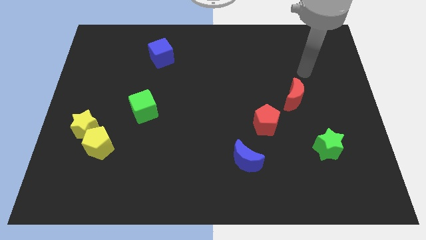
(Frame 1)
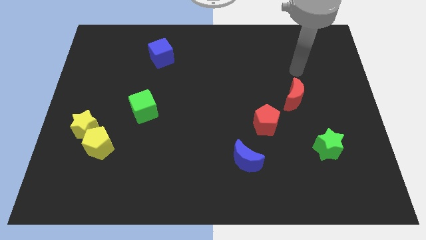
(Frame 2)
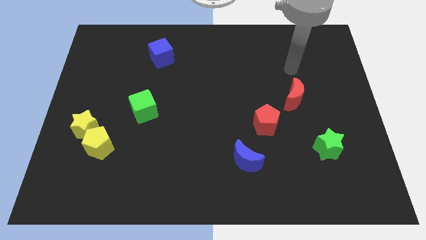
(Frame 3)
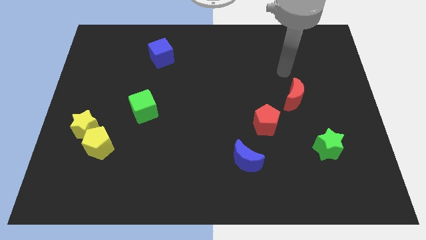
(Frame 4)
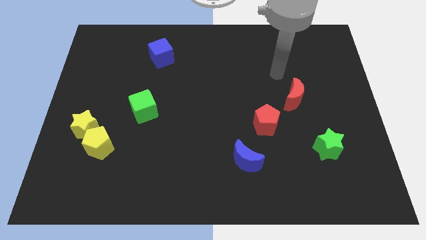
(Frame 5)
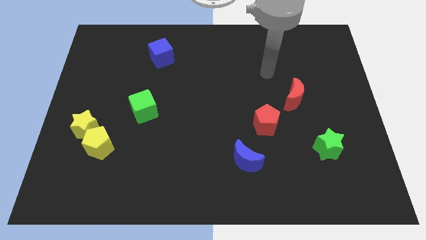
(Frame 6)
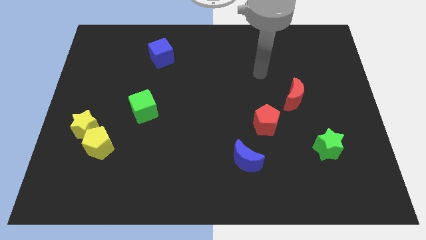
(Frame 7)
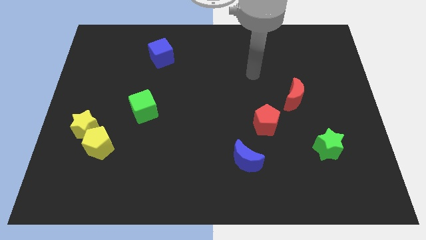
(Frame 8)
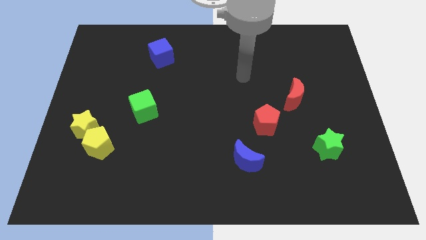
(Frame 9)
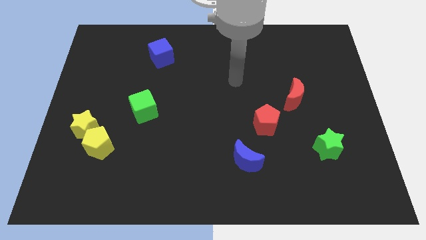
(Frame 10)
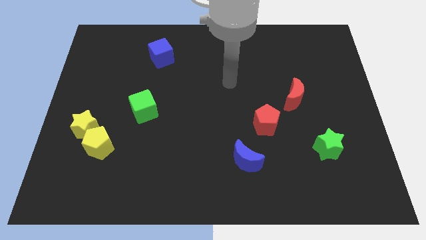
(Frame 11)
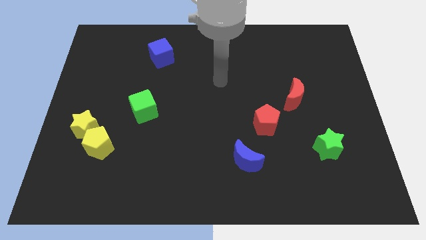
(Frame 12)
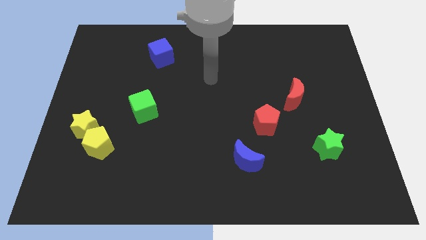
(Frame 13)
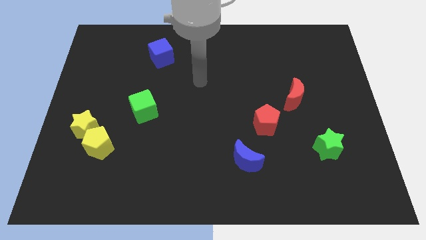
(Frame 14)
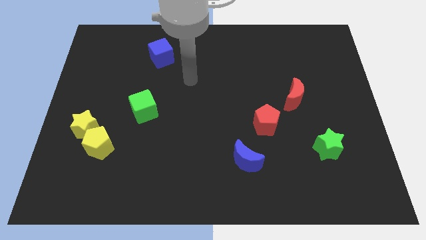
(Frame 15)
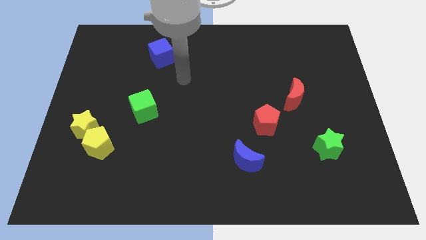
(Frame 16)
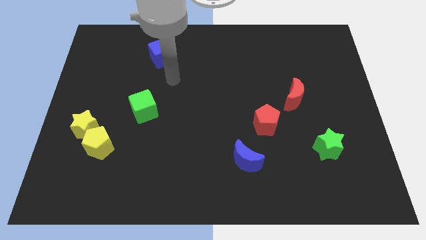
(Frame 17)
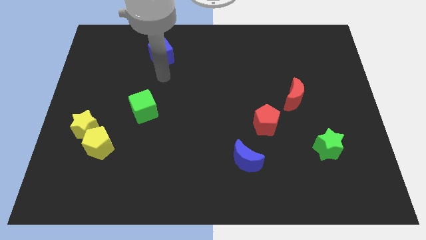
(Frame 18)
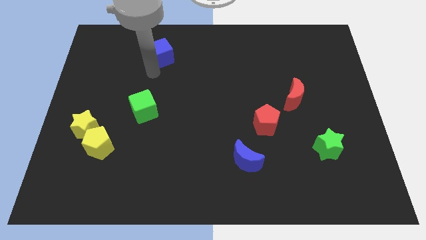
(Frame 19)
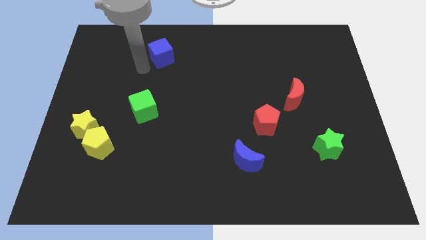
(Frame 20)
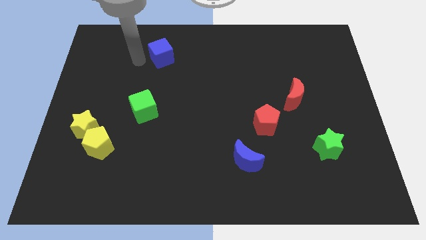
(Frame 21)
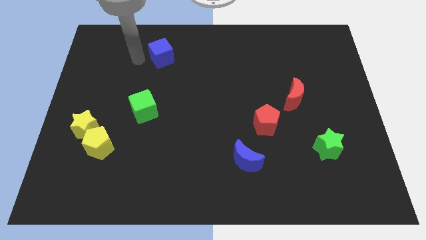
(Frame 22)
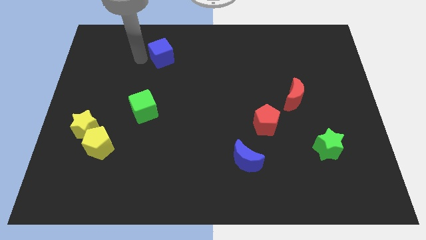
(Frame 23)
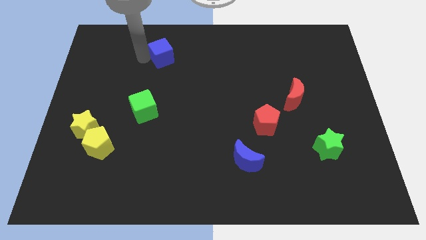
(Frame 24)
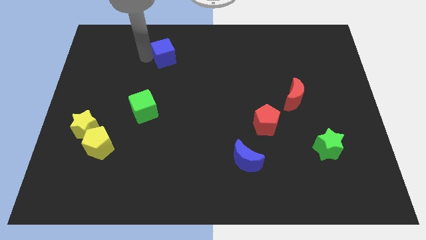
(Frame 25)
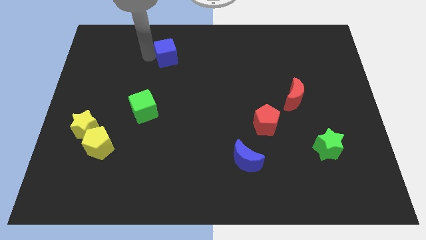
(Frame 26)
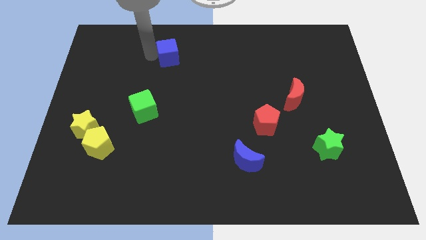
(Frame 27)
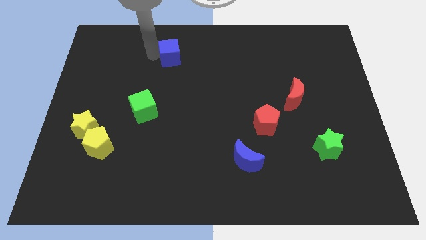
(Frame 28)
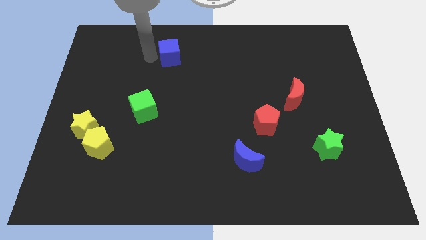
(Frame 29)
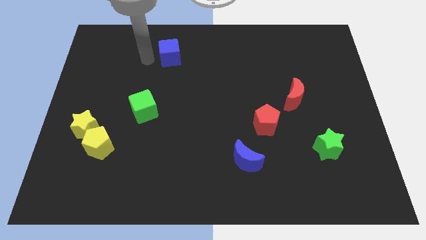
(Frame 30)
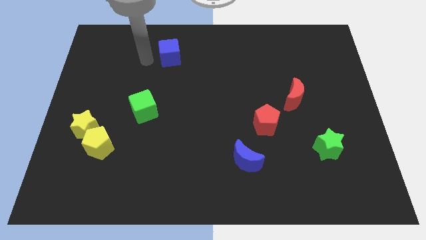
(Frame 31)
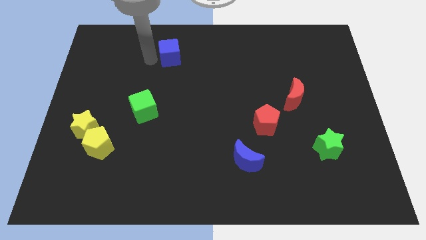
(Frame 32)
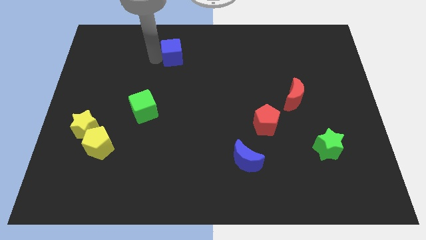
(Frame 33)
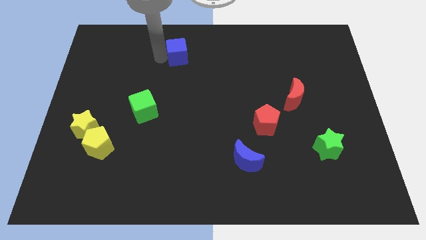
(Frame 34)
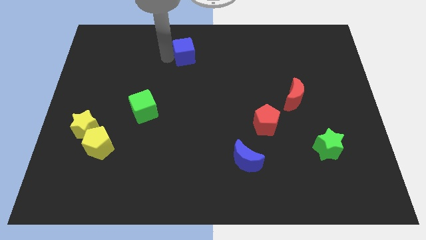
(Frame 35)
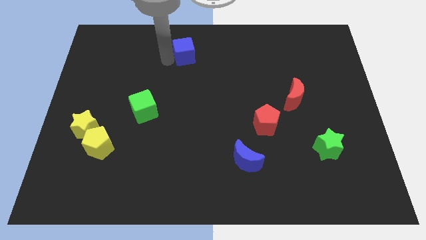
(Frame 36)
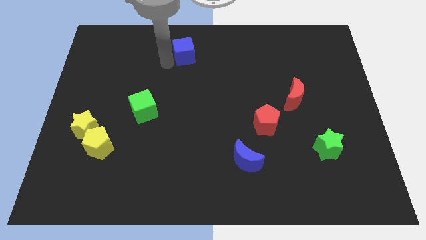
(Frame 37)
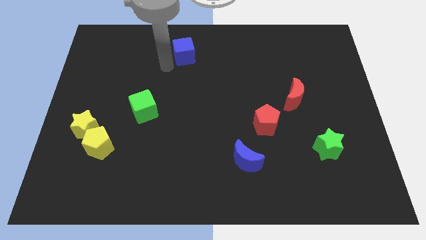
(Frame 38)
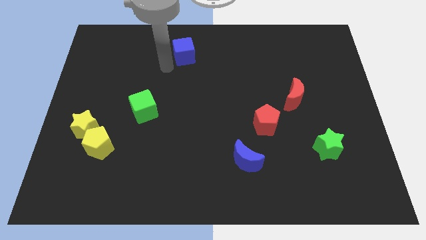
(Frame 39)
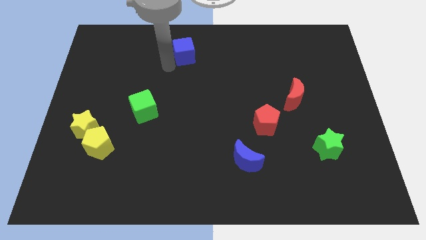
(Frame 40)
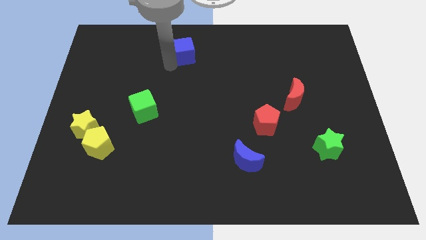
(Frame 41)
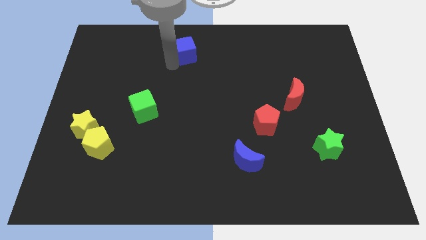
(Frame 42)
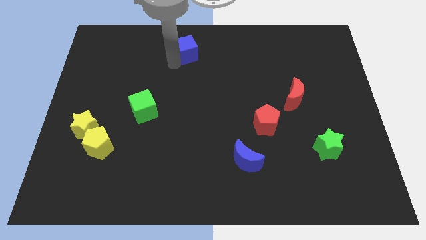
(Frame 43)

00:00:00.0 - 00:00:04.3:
push the blue cube to the top

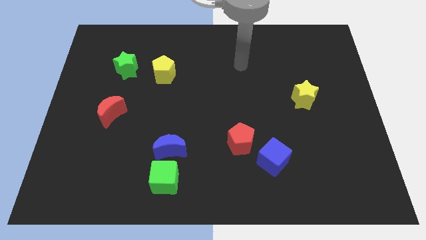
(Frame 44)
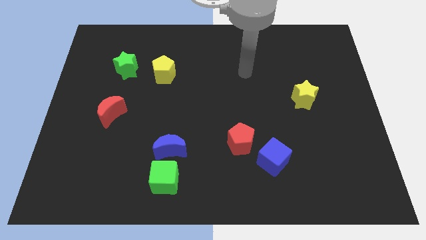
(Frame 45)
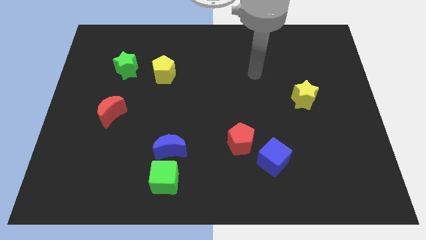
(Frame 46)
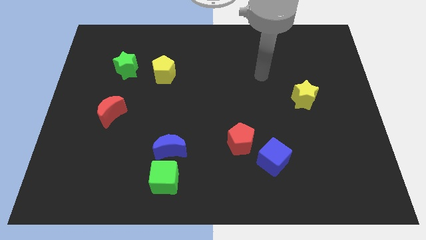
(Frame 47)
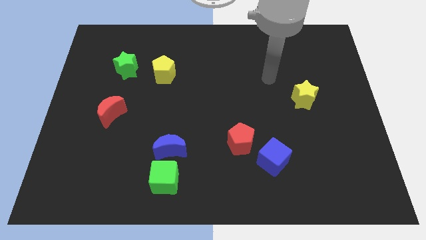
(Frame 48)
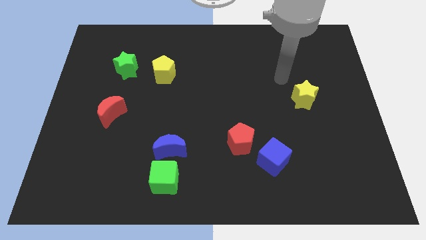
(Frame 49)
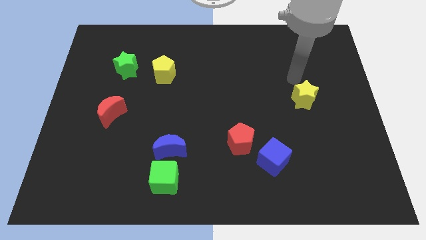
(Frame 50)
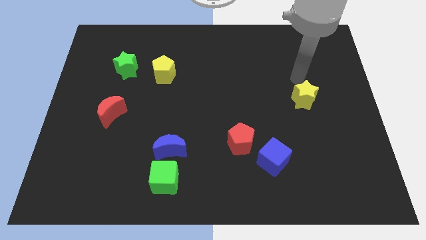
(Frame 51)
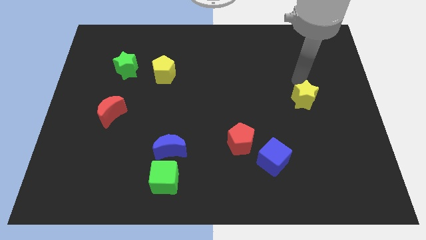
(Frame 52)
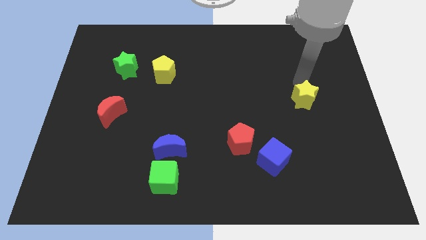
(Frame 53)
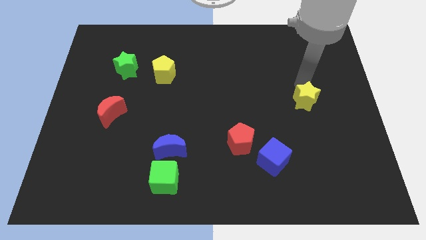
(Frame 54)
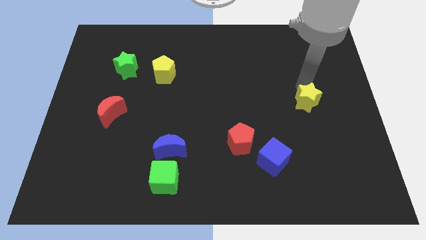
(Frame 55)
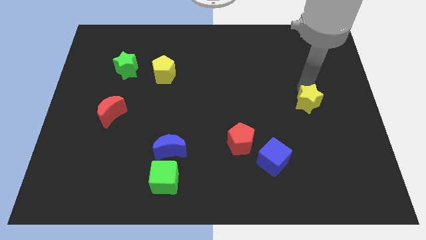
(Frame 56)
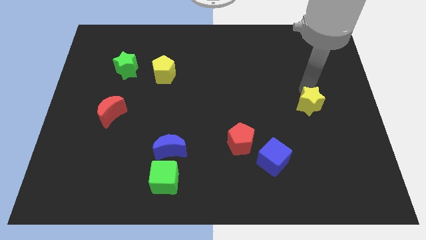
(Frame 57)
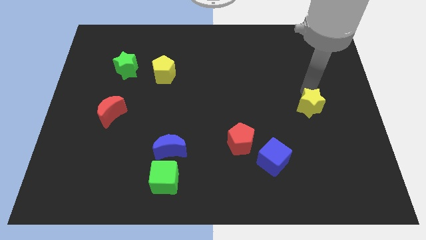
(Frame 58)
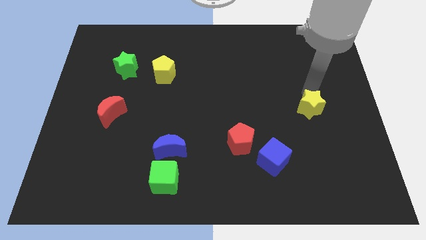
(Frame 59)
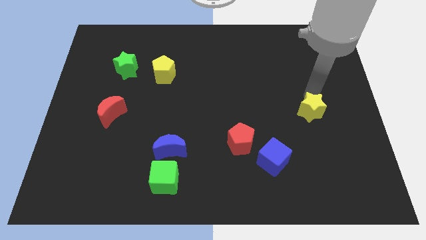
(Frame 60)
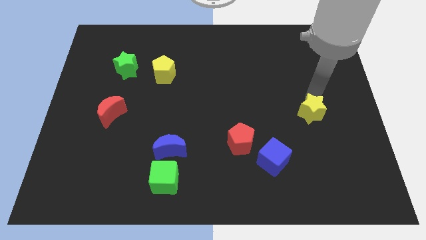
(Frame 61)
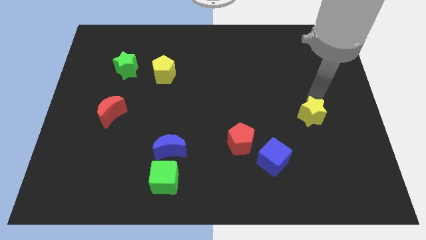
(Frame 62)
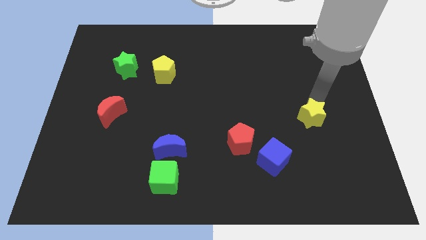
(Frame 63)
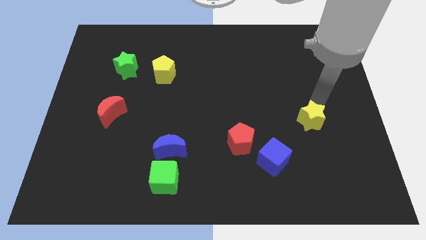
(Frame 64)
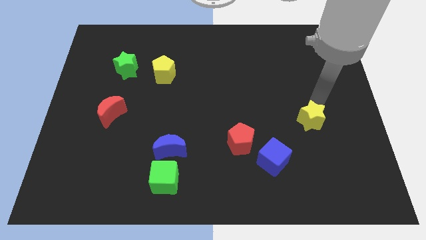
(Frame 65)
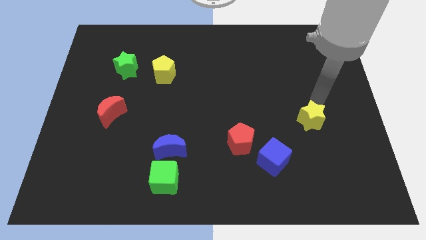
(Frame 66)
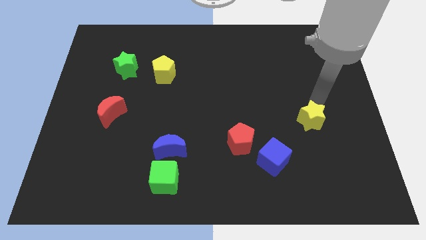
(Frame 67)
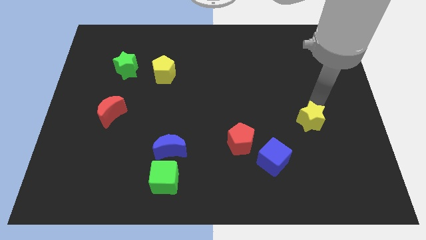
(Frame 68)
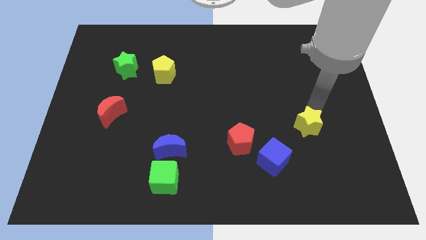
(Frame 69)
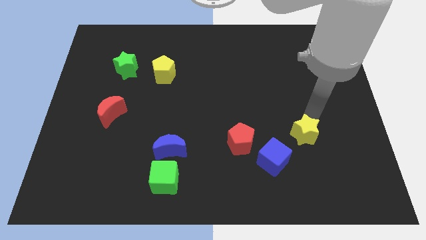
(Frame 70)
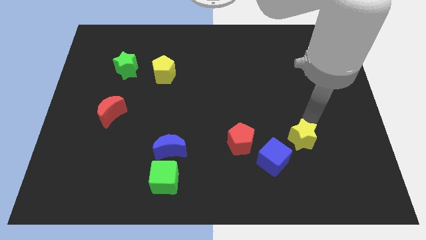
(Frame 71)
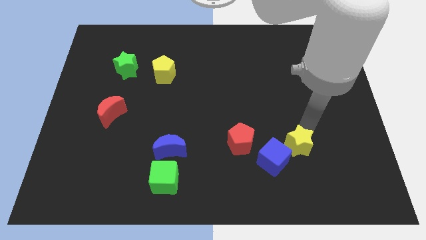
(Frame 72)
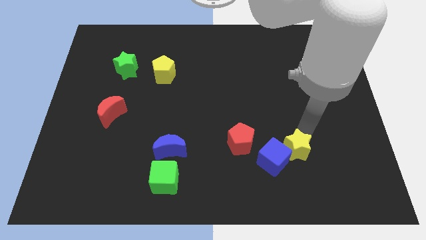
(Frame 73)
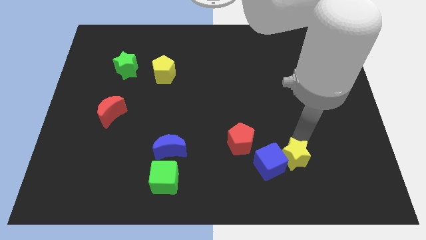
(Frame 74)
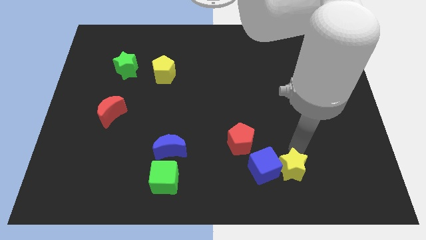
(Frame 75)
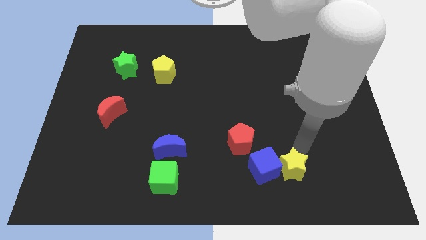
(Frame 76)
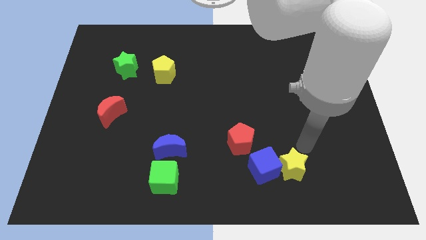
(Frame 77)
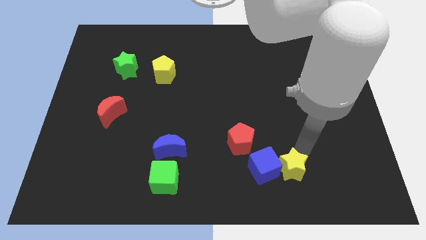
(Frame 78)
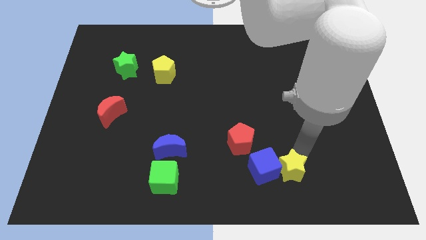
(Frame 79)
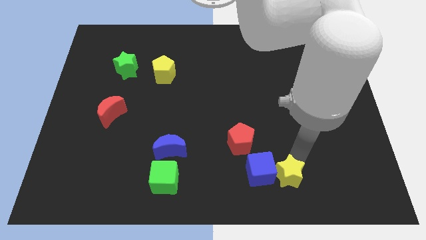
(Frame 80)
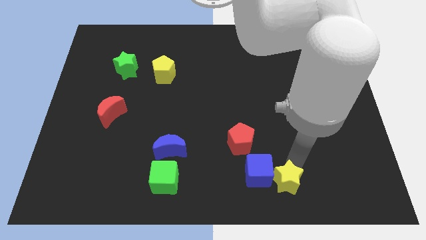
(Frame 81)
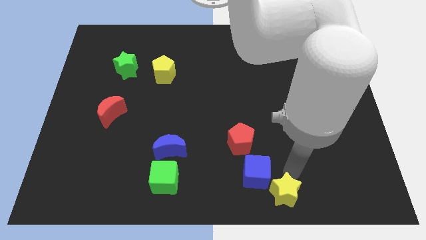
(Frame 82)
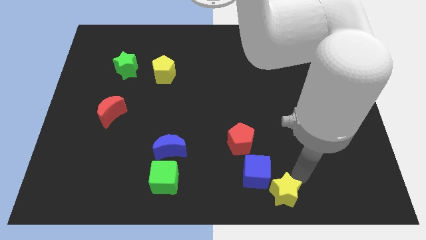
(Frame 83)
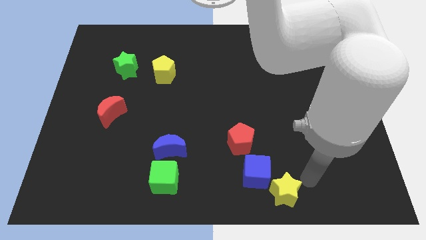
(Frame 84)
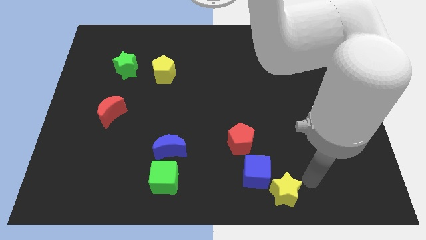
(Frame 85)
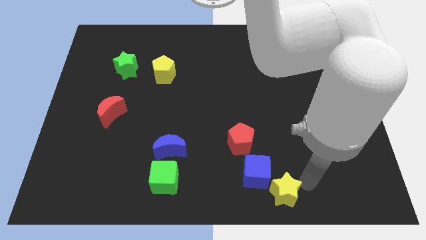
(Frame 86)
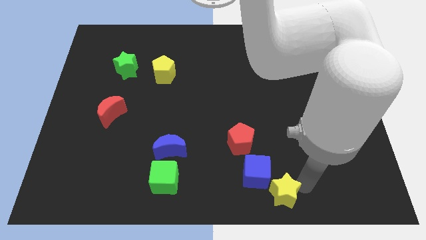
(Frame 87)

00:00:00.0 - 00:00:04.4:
push the yellow star to the bottom side
